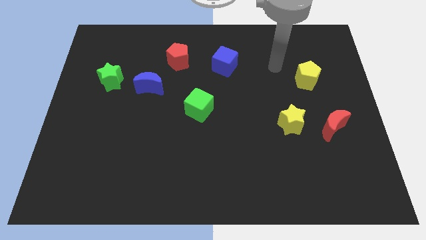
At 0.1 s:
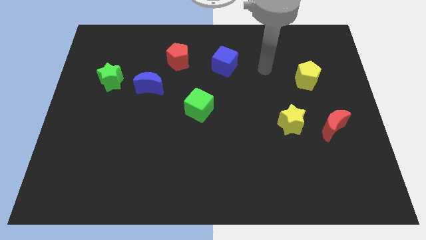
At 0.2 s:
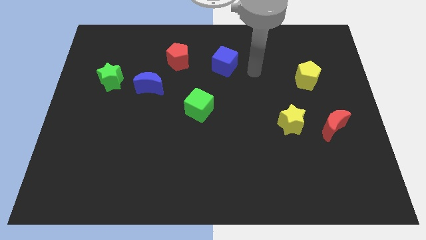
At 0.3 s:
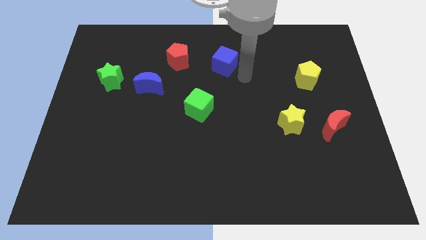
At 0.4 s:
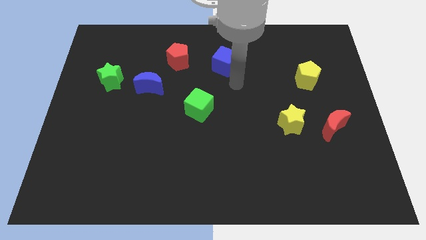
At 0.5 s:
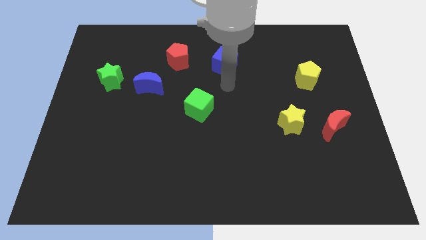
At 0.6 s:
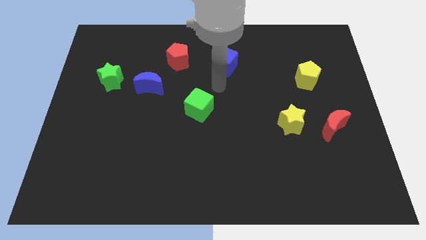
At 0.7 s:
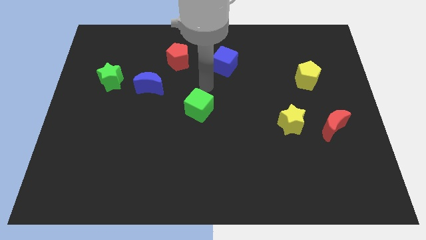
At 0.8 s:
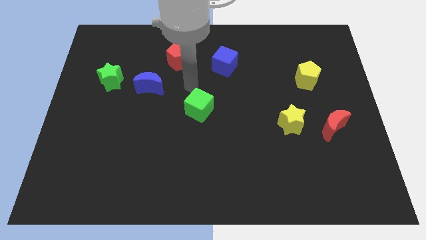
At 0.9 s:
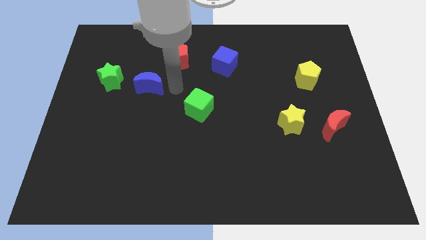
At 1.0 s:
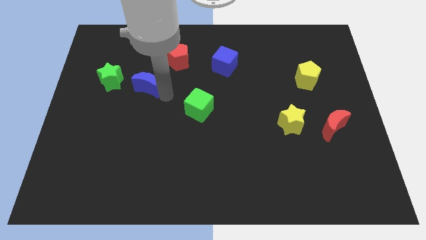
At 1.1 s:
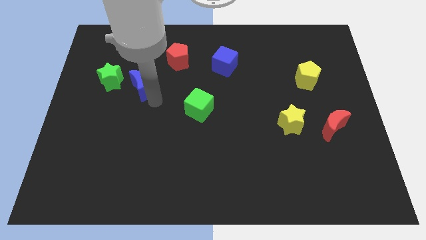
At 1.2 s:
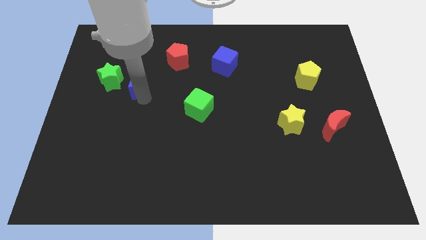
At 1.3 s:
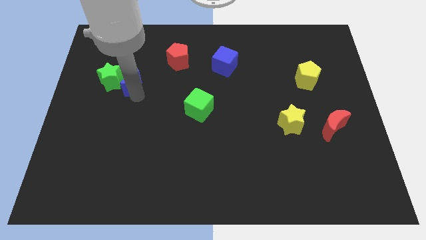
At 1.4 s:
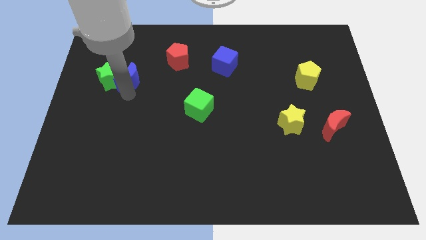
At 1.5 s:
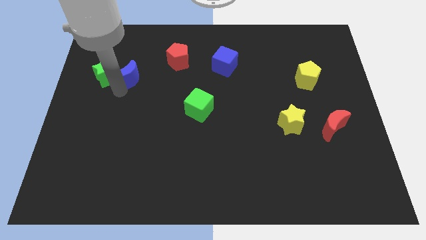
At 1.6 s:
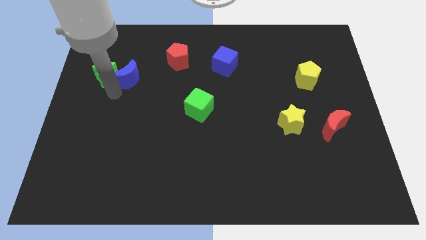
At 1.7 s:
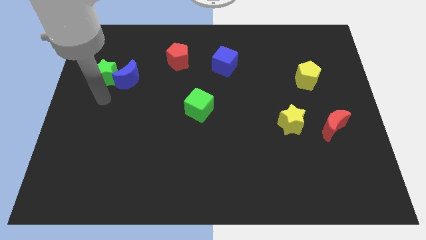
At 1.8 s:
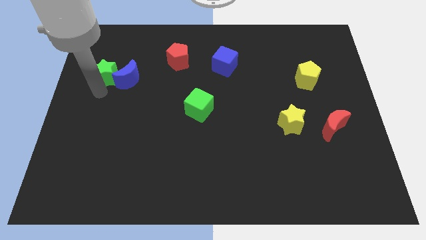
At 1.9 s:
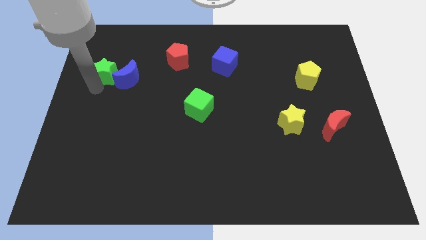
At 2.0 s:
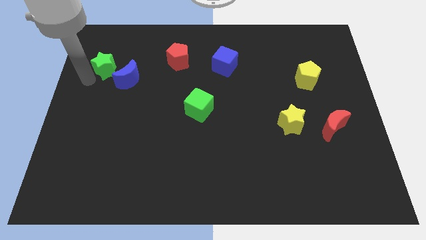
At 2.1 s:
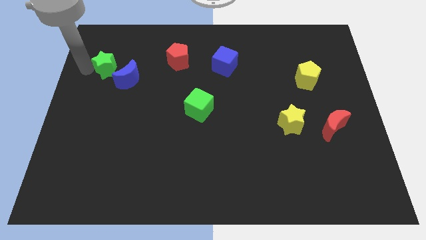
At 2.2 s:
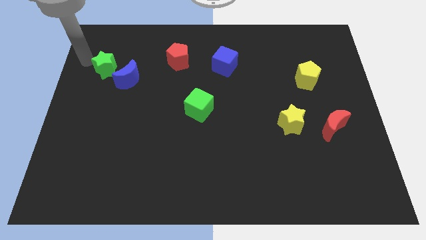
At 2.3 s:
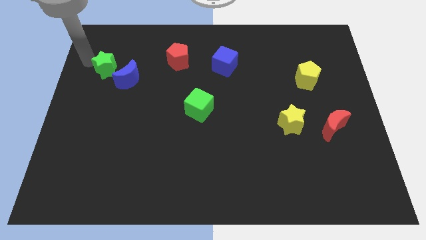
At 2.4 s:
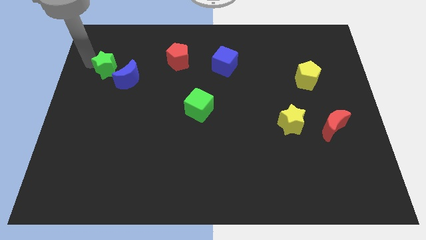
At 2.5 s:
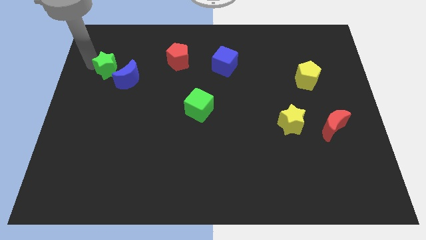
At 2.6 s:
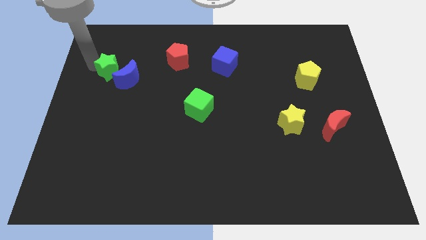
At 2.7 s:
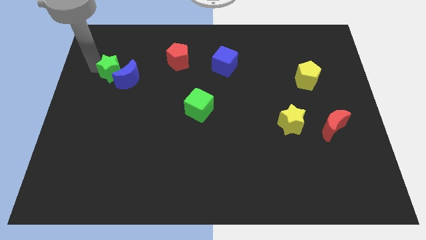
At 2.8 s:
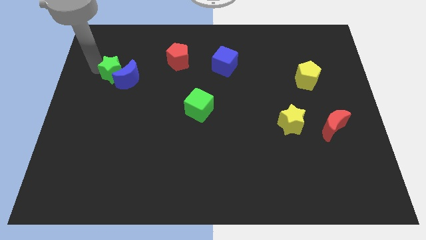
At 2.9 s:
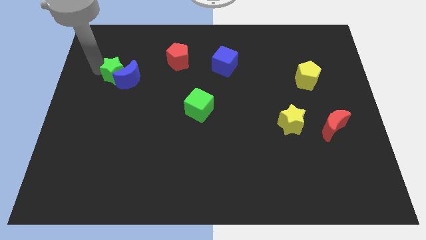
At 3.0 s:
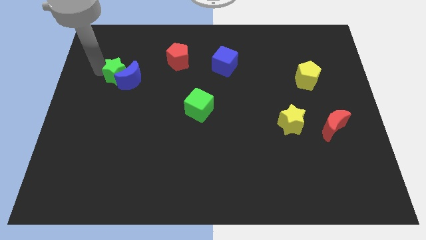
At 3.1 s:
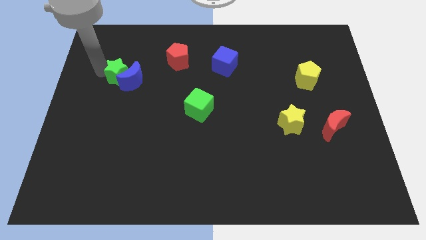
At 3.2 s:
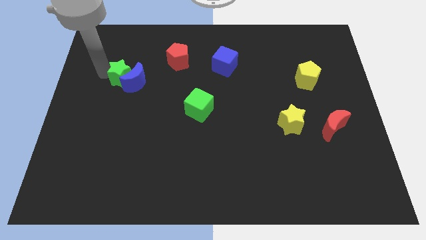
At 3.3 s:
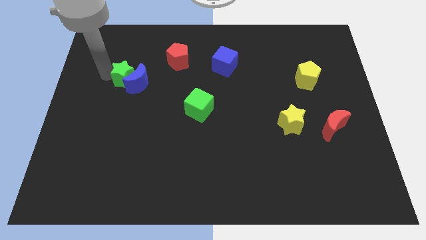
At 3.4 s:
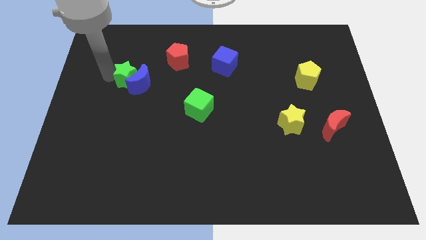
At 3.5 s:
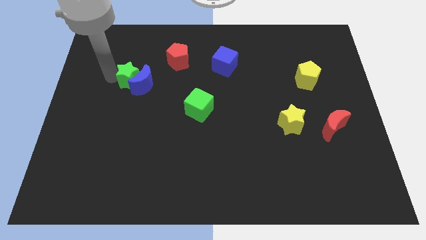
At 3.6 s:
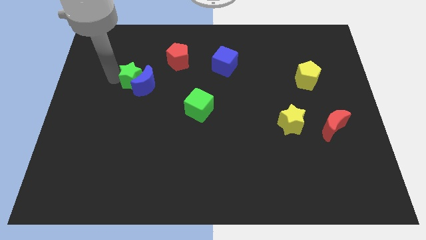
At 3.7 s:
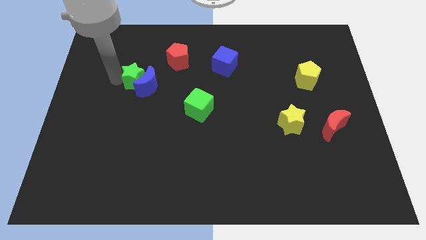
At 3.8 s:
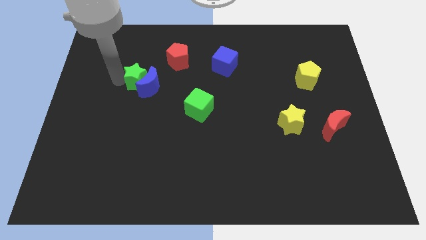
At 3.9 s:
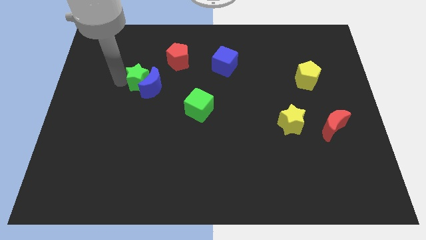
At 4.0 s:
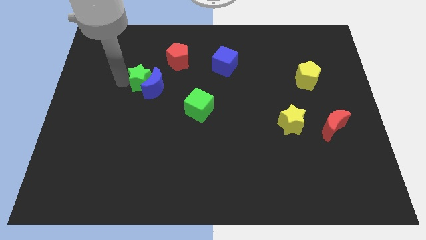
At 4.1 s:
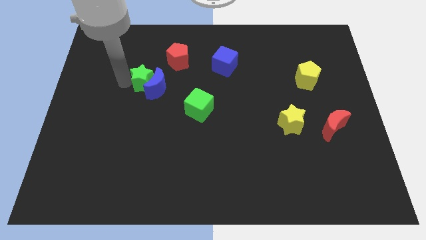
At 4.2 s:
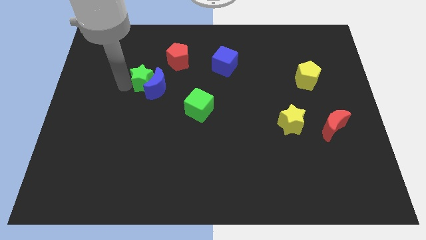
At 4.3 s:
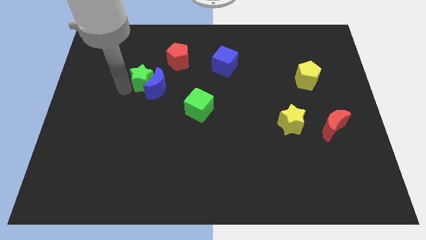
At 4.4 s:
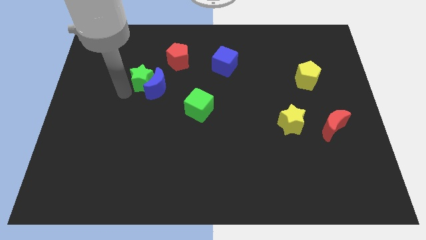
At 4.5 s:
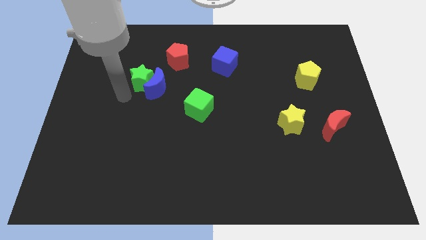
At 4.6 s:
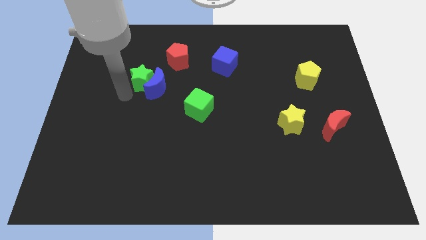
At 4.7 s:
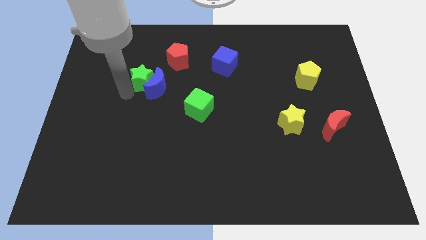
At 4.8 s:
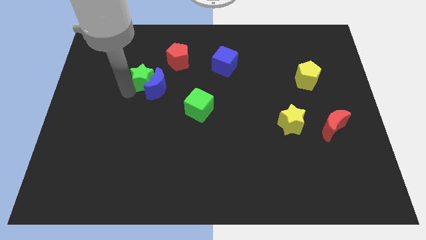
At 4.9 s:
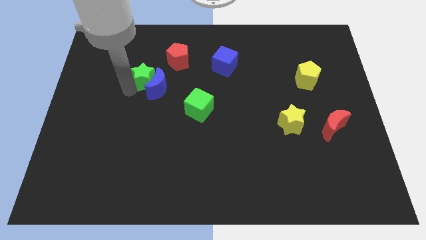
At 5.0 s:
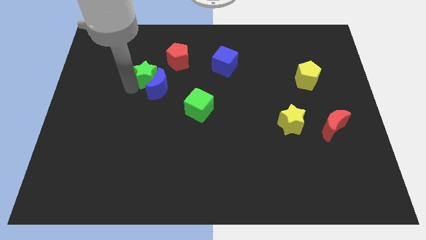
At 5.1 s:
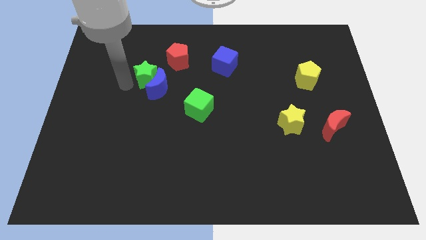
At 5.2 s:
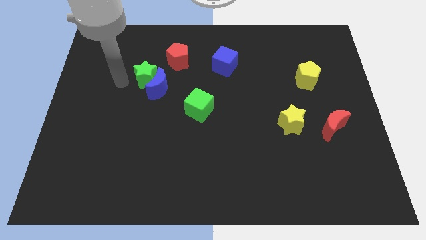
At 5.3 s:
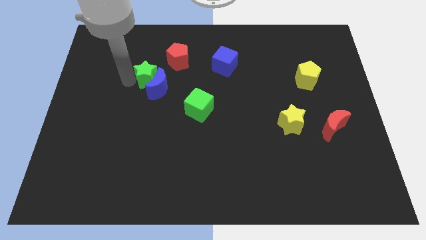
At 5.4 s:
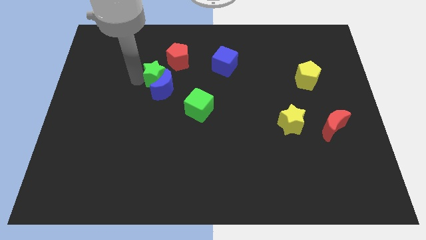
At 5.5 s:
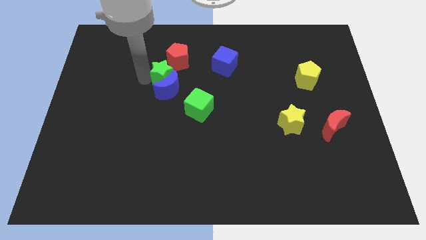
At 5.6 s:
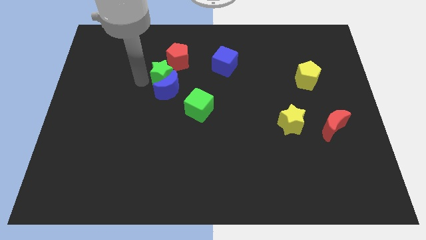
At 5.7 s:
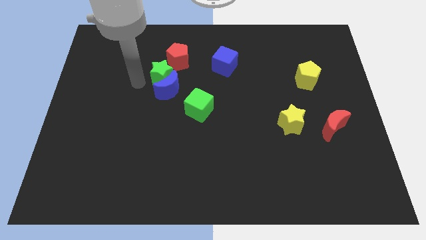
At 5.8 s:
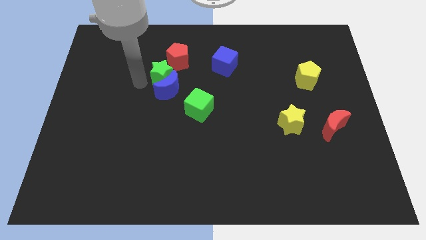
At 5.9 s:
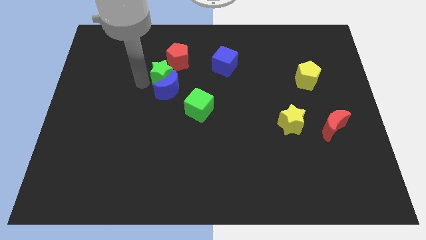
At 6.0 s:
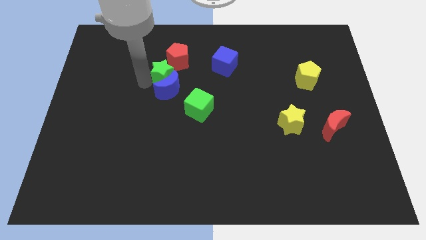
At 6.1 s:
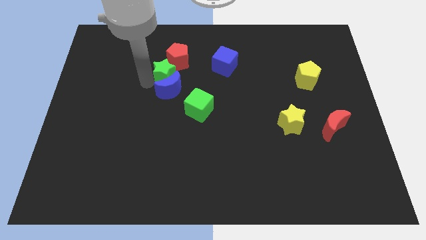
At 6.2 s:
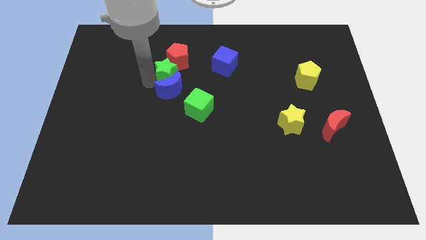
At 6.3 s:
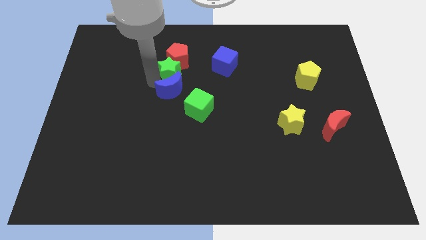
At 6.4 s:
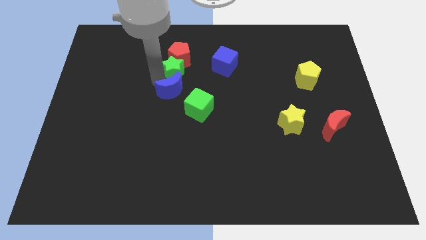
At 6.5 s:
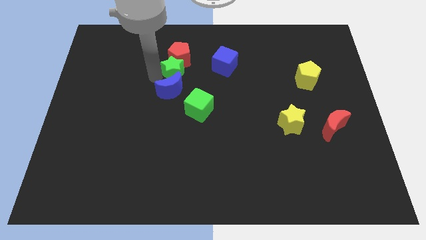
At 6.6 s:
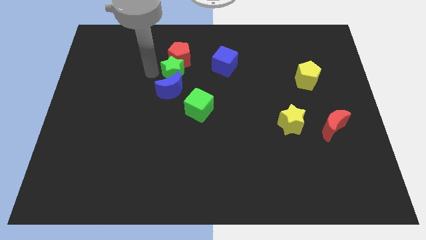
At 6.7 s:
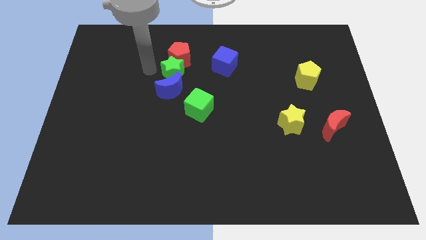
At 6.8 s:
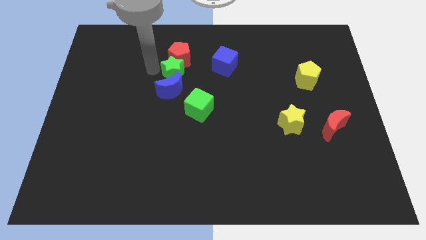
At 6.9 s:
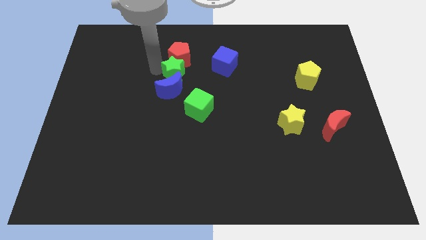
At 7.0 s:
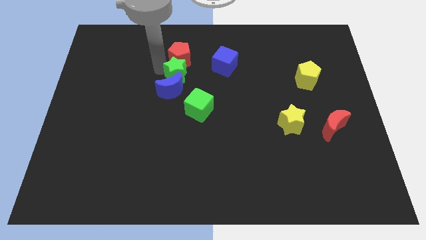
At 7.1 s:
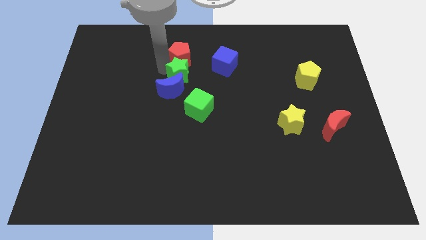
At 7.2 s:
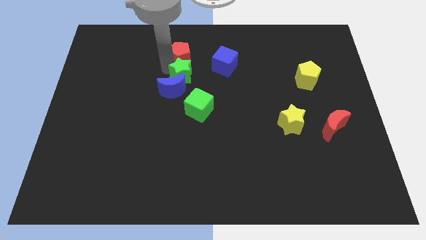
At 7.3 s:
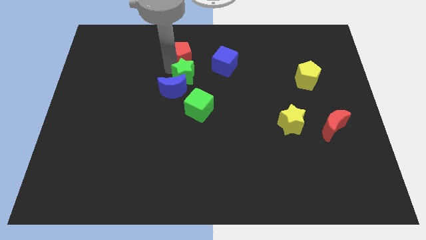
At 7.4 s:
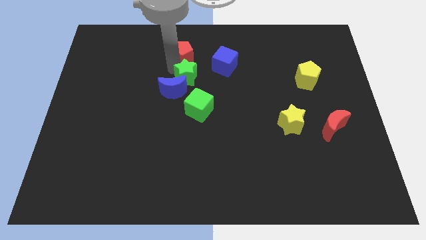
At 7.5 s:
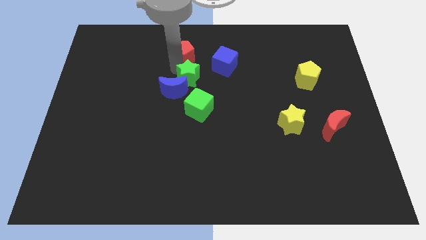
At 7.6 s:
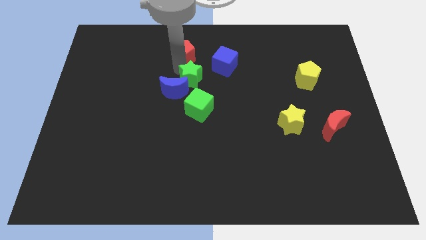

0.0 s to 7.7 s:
slide the green star to the right

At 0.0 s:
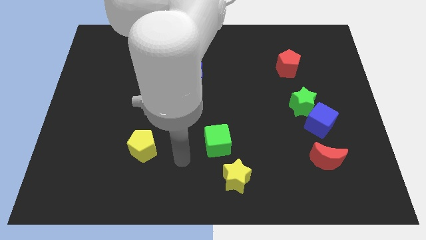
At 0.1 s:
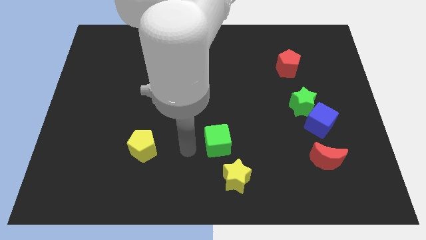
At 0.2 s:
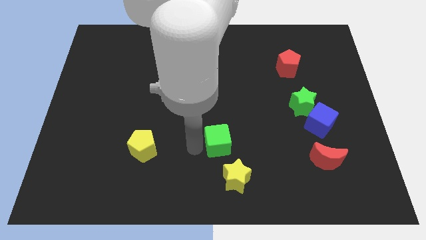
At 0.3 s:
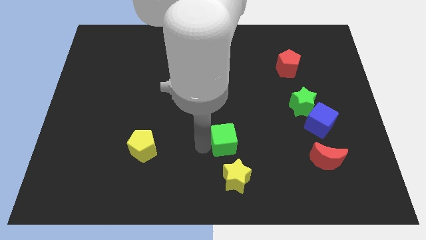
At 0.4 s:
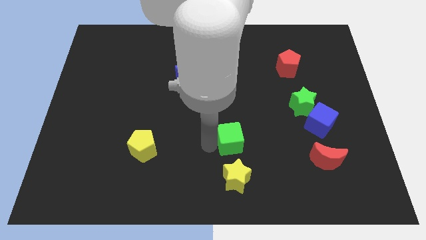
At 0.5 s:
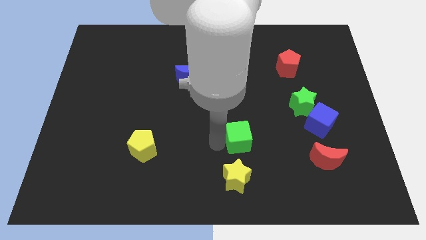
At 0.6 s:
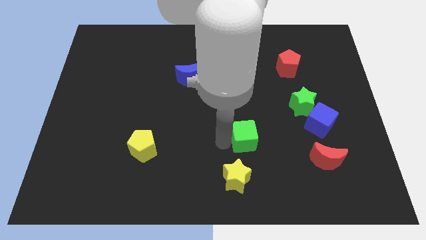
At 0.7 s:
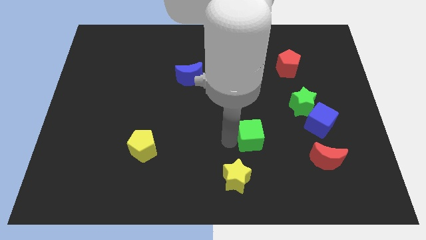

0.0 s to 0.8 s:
slide the green cube slightly to the right
